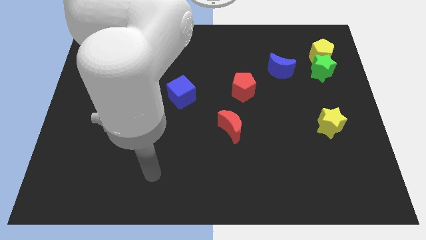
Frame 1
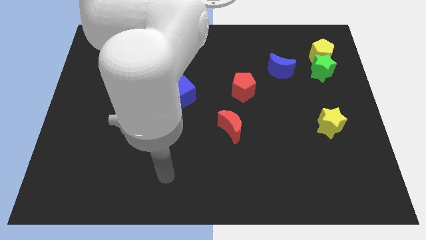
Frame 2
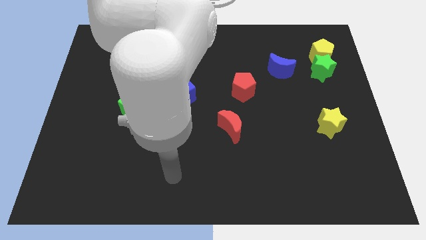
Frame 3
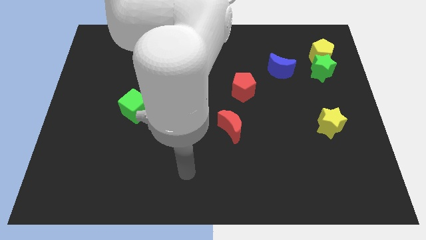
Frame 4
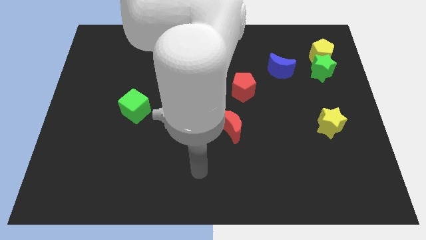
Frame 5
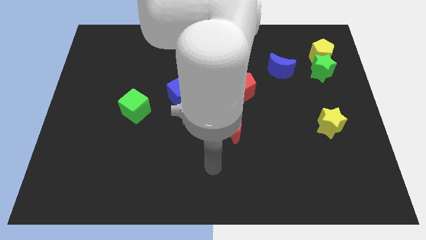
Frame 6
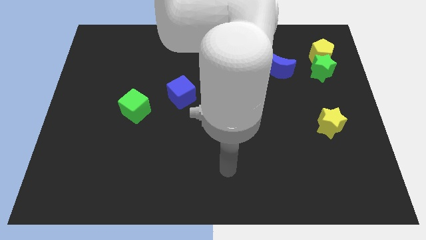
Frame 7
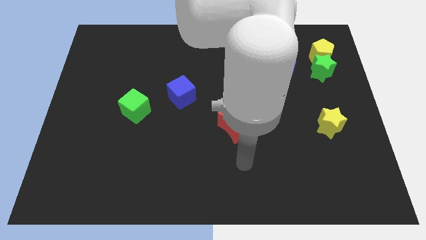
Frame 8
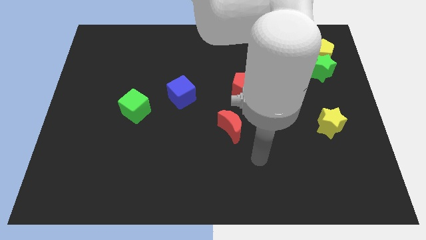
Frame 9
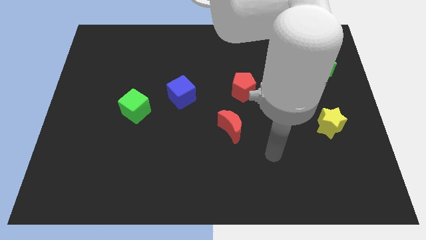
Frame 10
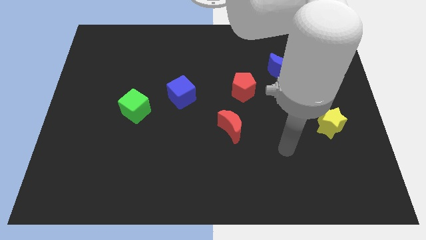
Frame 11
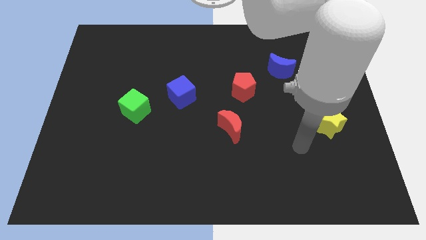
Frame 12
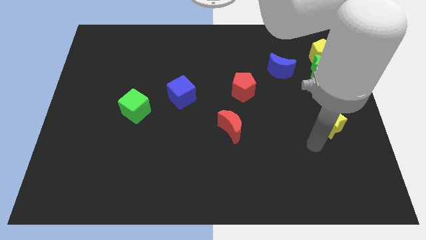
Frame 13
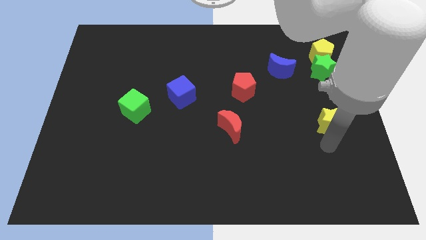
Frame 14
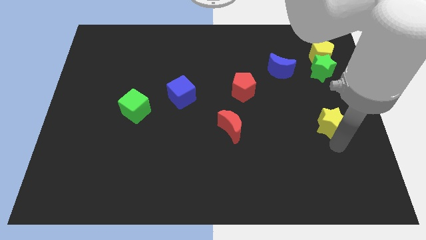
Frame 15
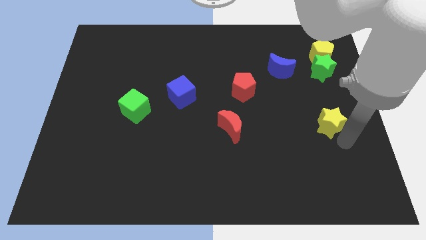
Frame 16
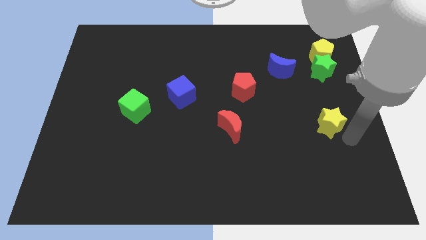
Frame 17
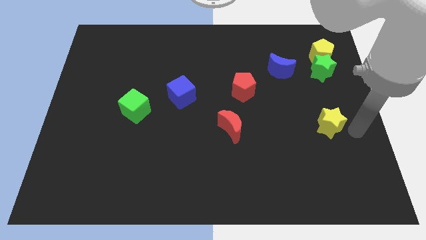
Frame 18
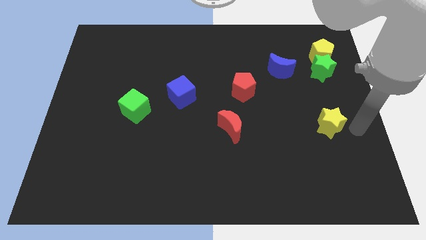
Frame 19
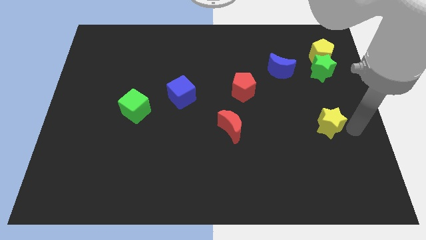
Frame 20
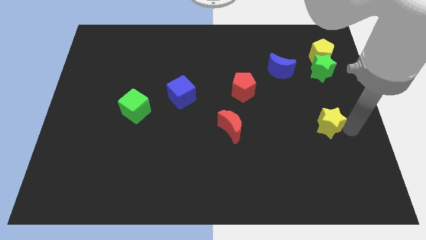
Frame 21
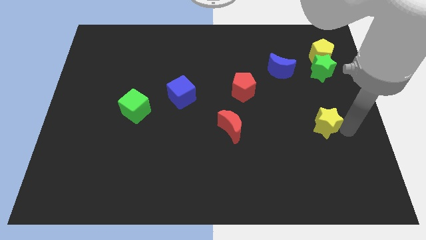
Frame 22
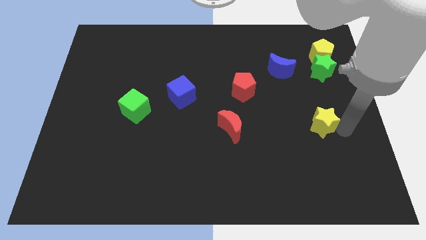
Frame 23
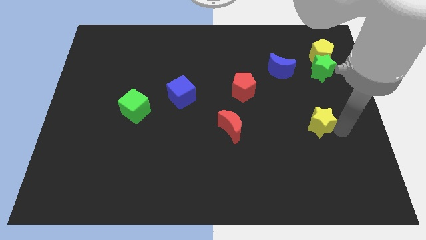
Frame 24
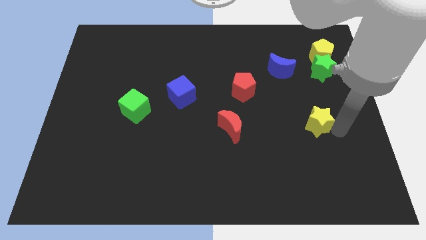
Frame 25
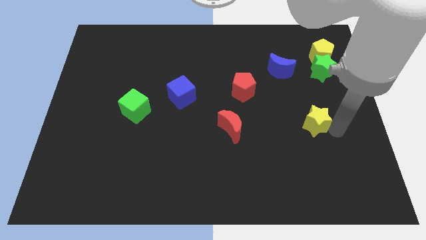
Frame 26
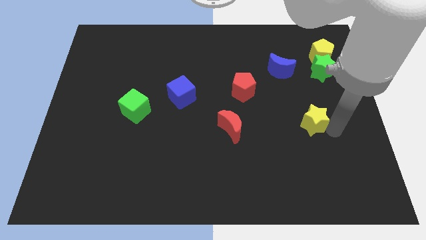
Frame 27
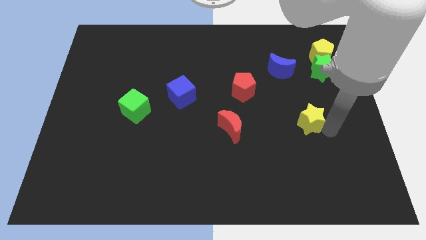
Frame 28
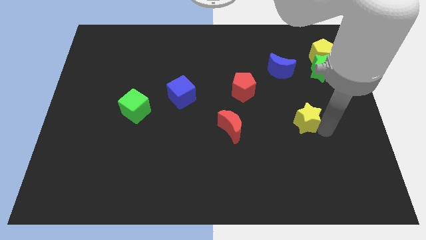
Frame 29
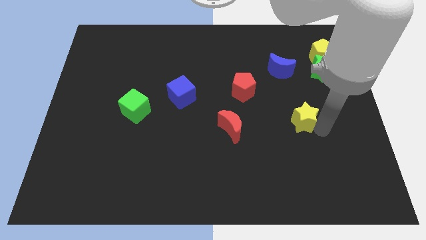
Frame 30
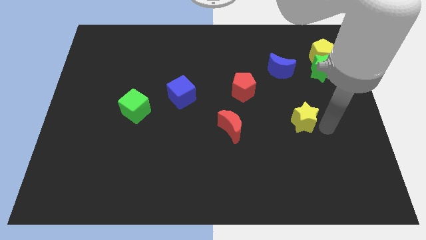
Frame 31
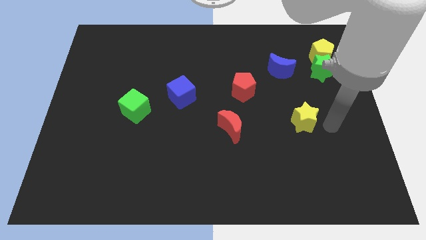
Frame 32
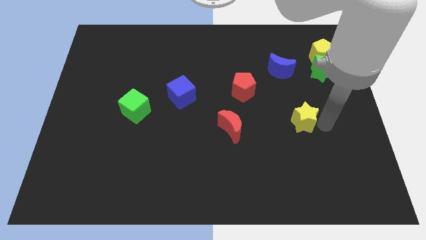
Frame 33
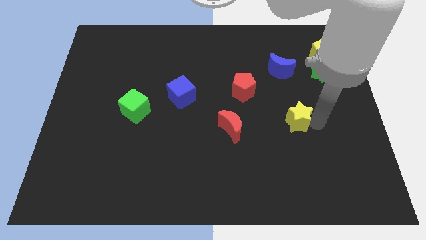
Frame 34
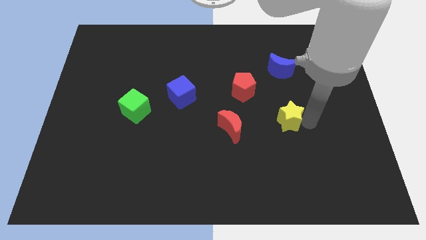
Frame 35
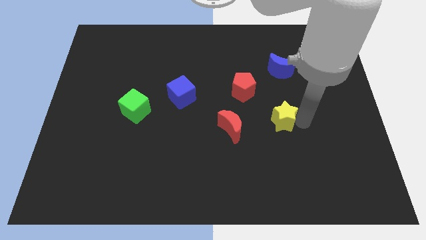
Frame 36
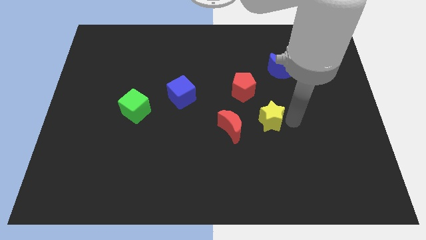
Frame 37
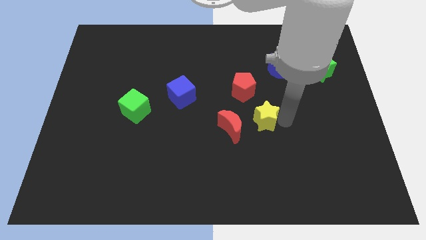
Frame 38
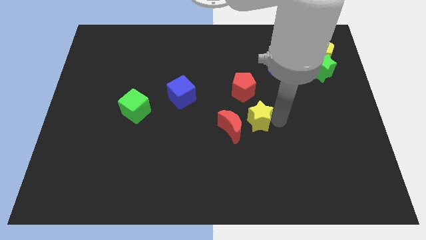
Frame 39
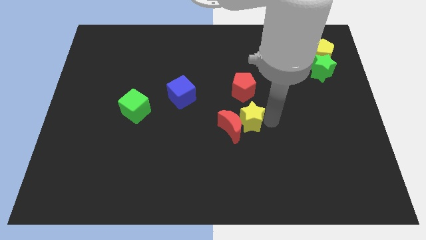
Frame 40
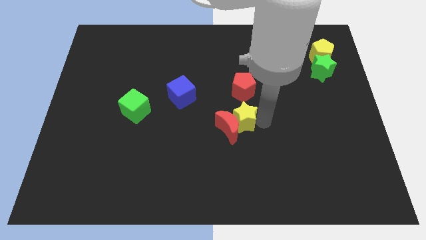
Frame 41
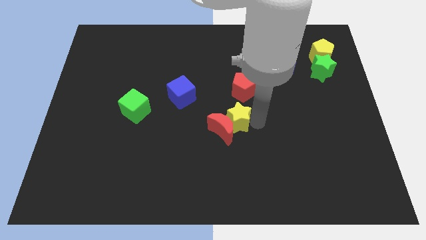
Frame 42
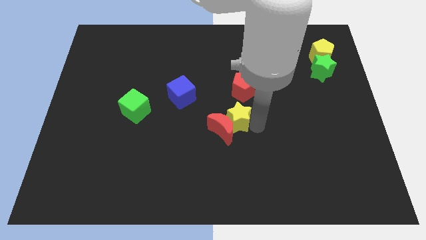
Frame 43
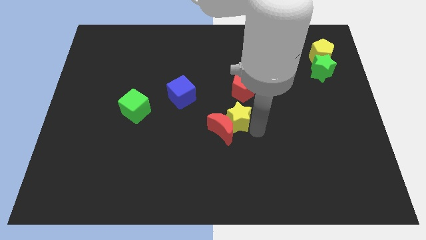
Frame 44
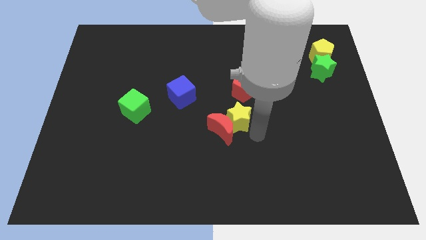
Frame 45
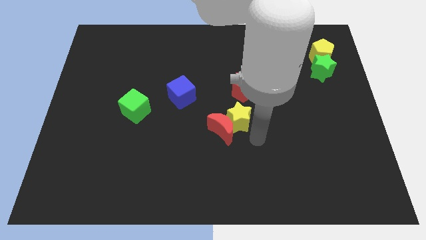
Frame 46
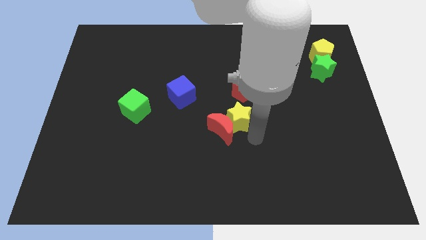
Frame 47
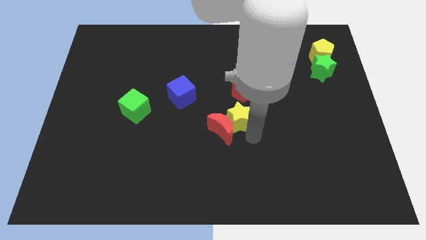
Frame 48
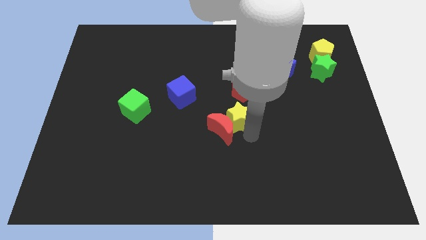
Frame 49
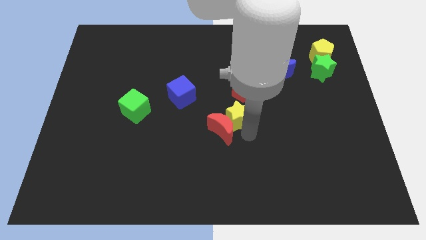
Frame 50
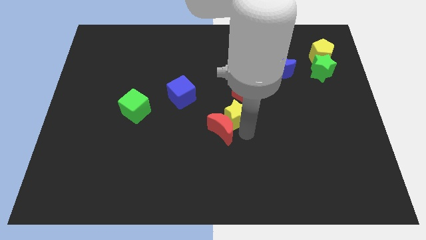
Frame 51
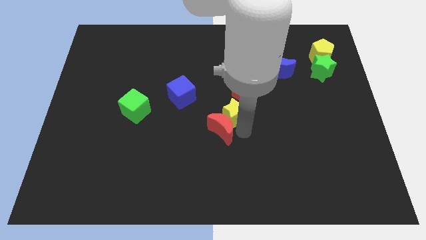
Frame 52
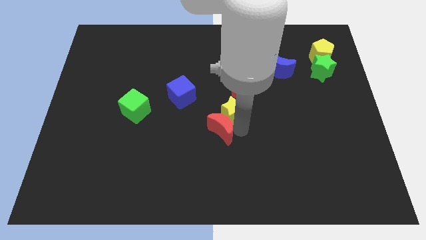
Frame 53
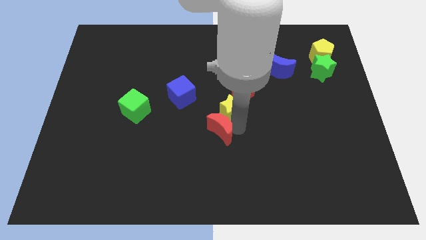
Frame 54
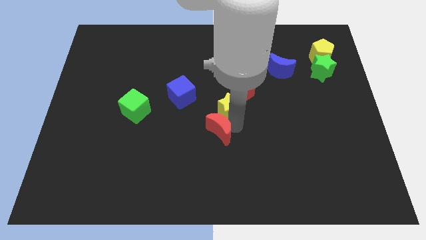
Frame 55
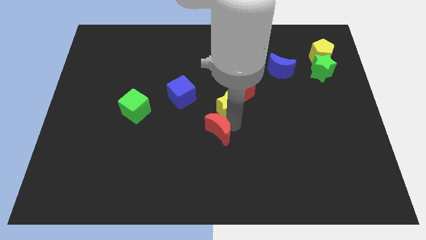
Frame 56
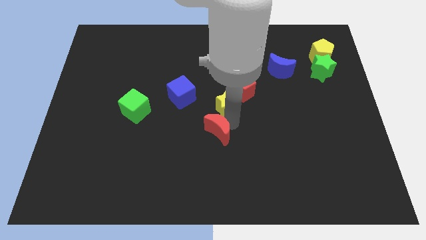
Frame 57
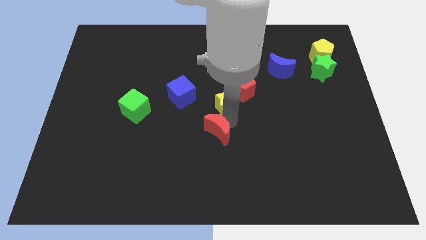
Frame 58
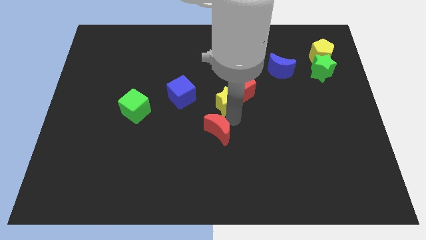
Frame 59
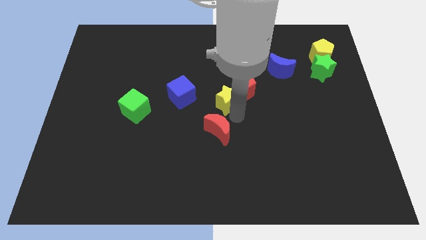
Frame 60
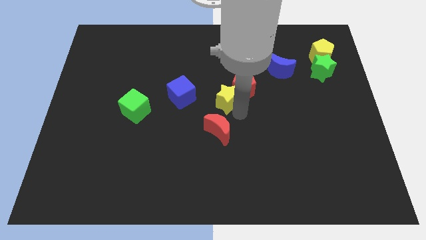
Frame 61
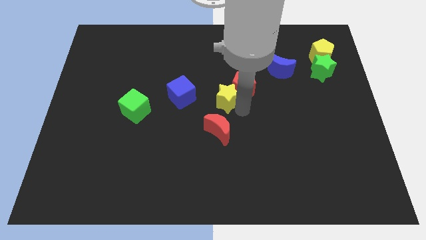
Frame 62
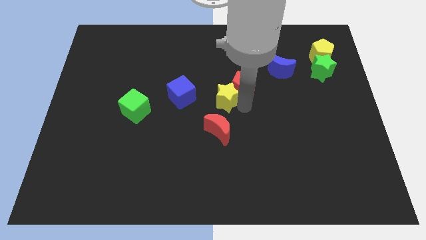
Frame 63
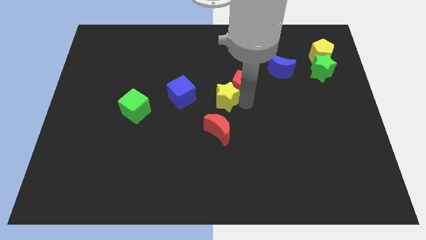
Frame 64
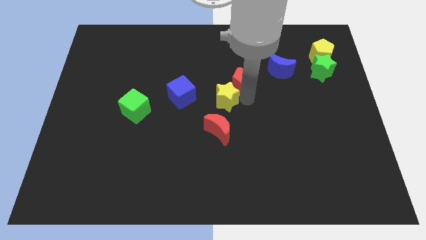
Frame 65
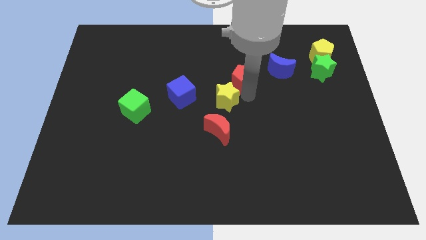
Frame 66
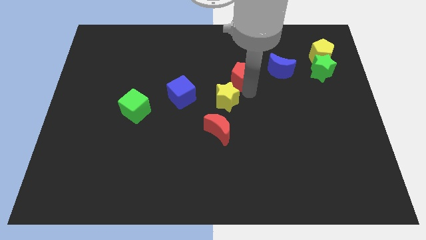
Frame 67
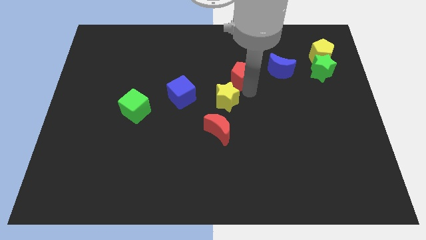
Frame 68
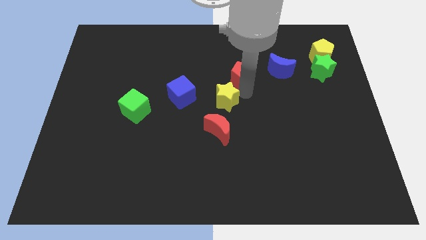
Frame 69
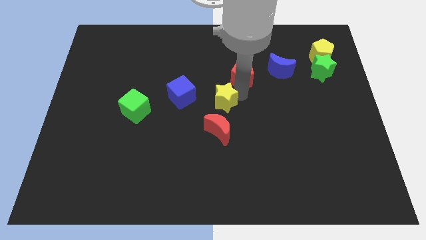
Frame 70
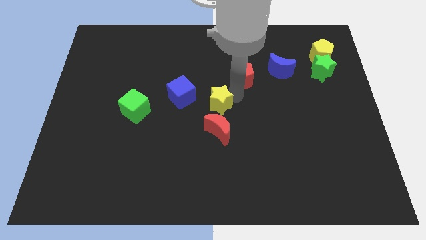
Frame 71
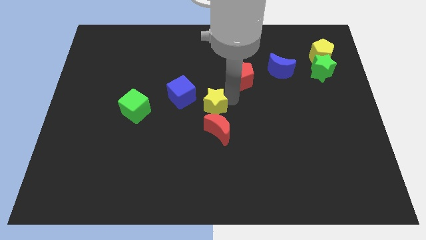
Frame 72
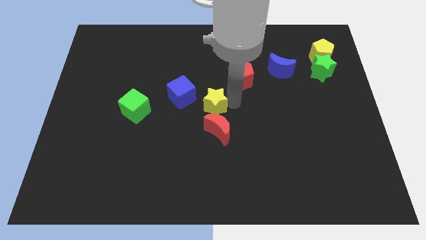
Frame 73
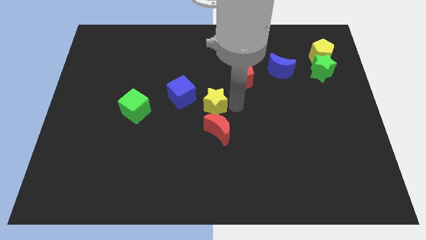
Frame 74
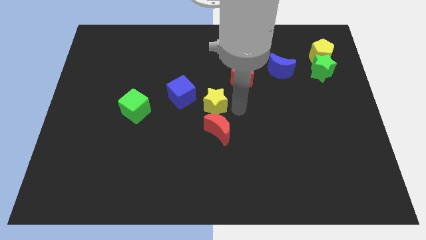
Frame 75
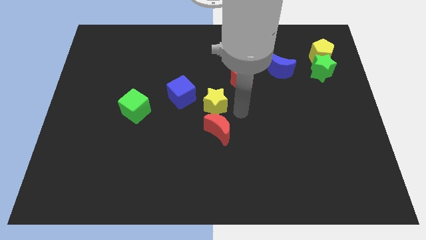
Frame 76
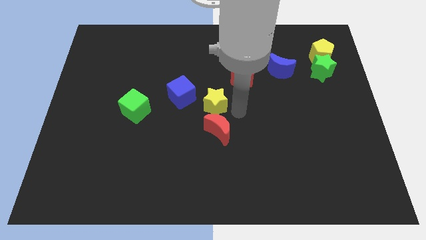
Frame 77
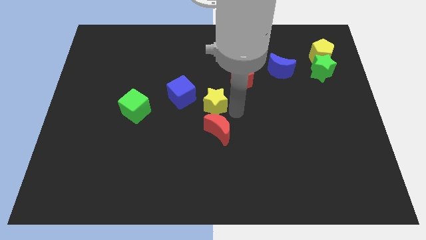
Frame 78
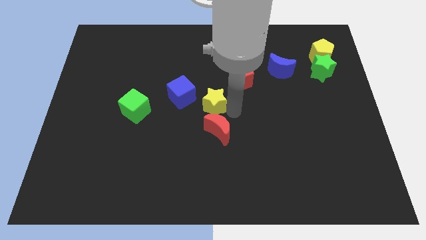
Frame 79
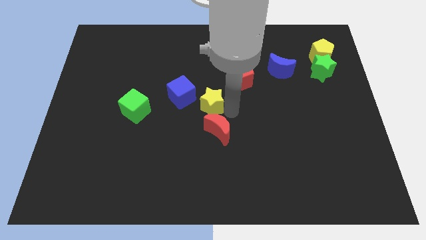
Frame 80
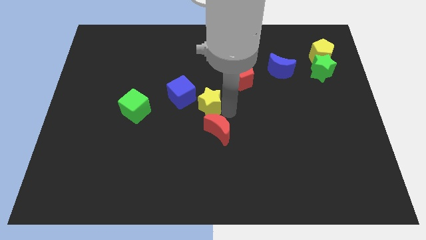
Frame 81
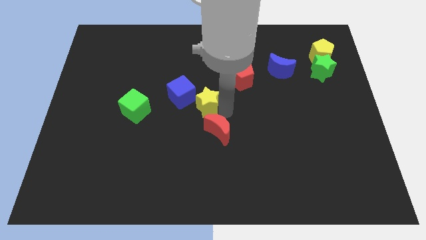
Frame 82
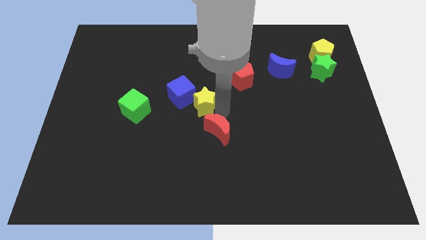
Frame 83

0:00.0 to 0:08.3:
push the yellow star towards the blue cube
